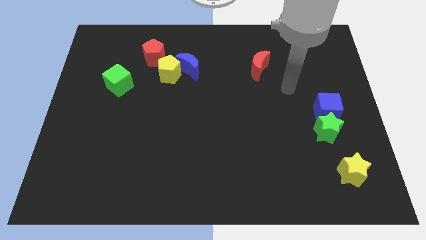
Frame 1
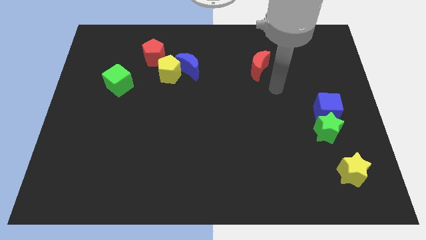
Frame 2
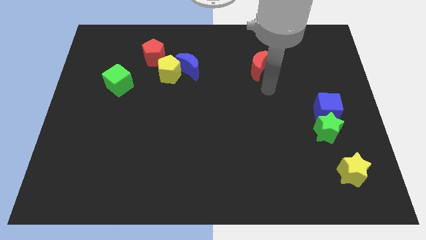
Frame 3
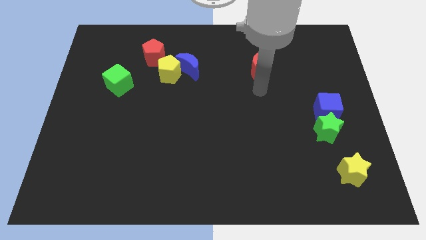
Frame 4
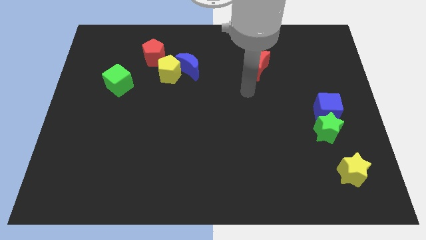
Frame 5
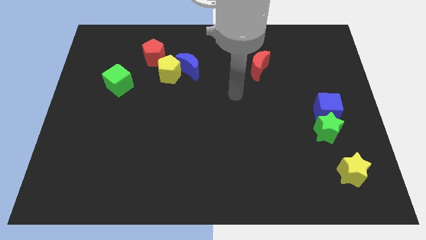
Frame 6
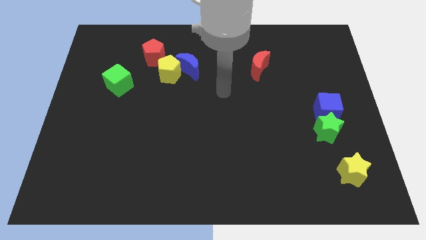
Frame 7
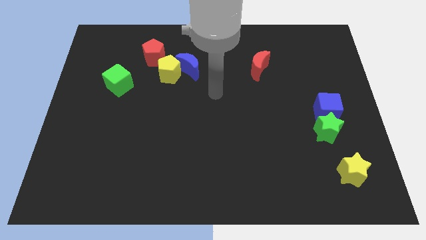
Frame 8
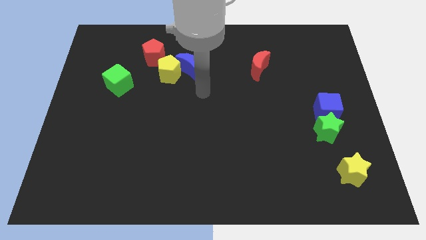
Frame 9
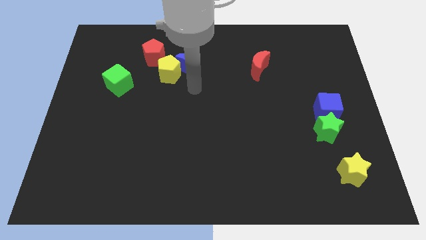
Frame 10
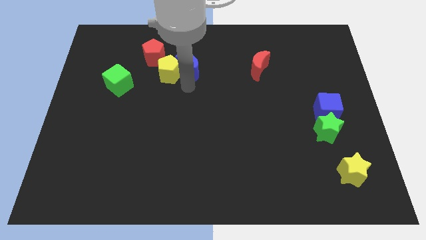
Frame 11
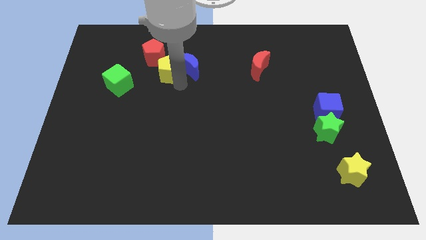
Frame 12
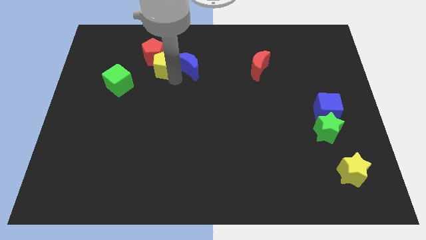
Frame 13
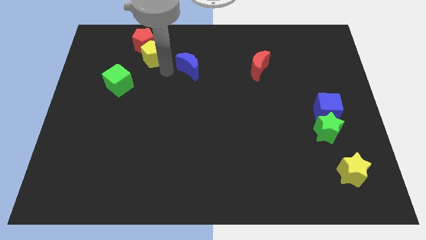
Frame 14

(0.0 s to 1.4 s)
move the blue moon away from the yellow pentagon

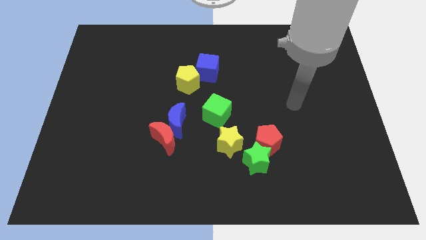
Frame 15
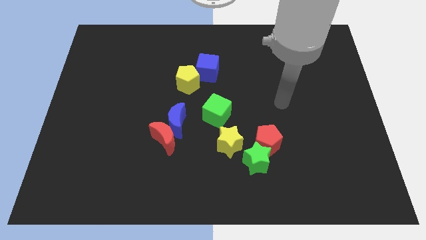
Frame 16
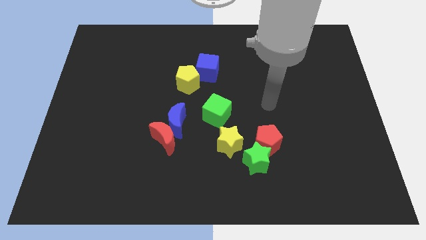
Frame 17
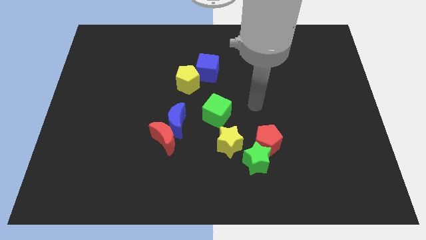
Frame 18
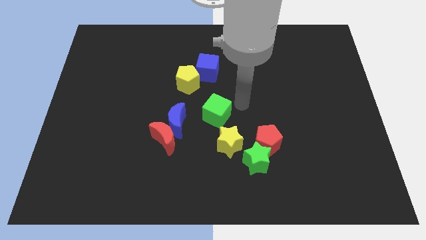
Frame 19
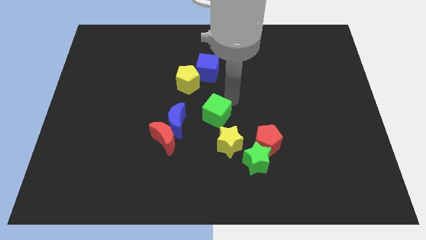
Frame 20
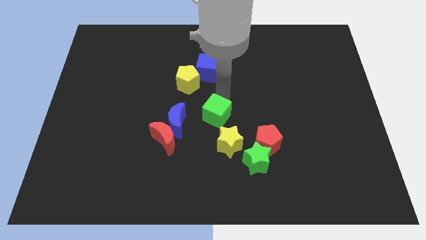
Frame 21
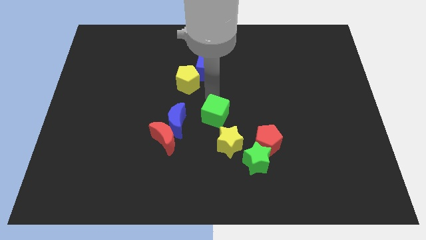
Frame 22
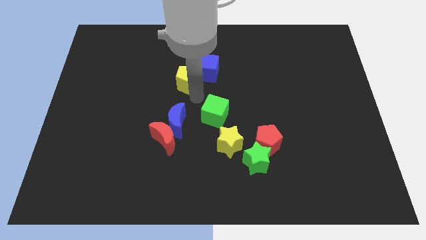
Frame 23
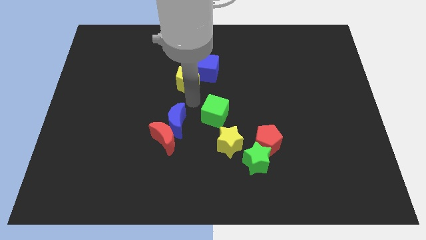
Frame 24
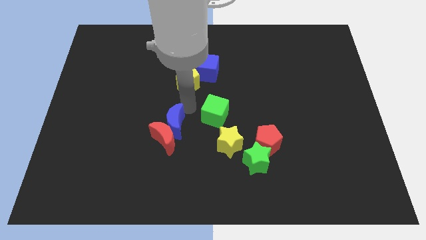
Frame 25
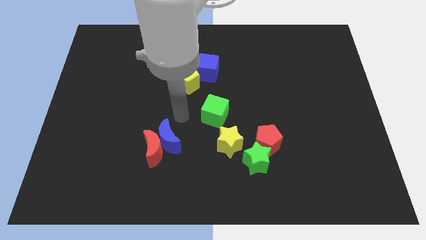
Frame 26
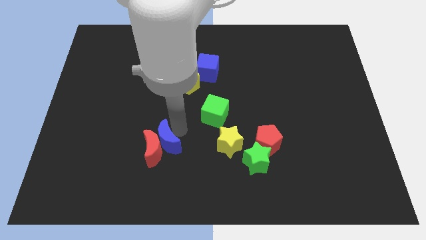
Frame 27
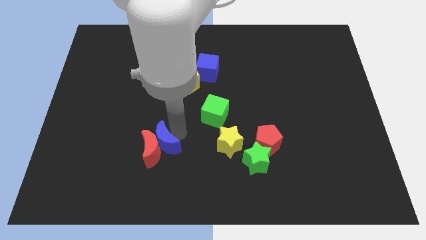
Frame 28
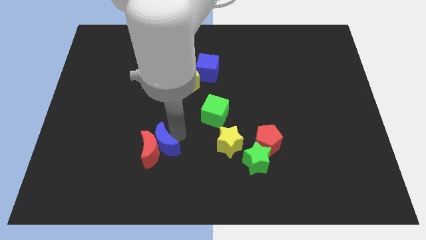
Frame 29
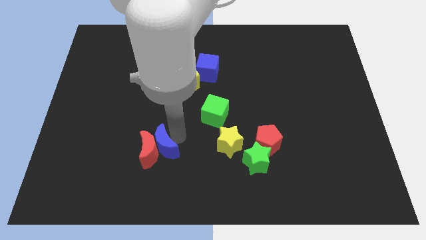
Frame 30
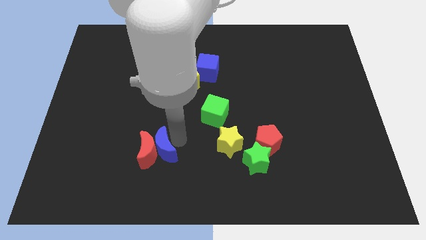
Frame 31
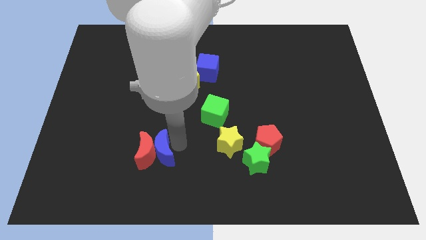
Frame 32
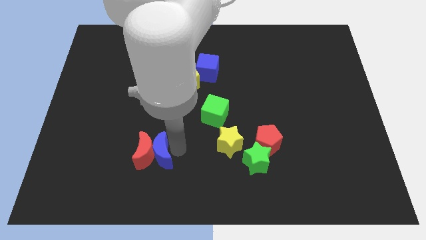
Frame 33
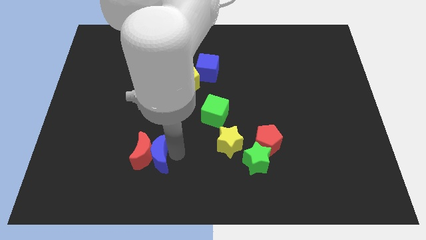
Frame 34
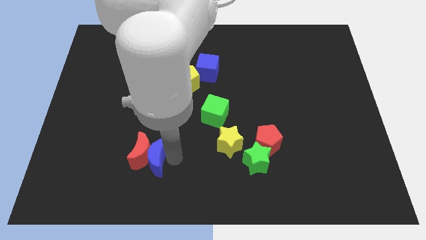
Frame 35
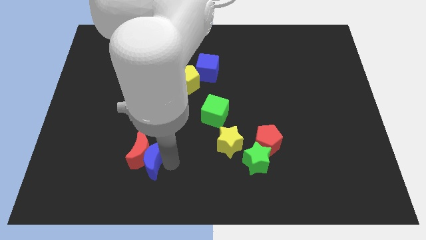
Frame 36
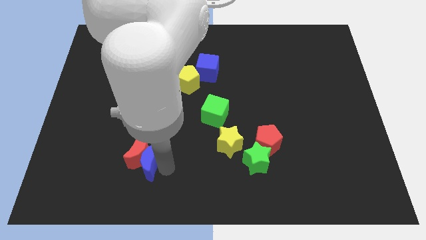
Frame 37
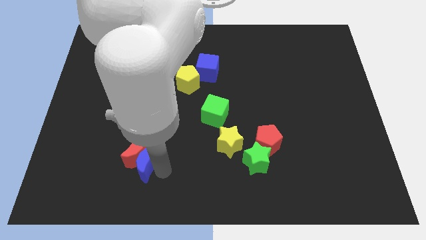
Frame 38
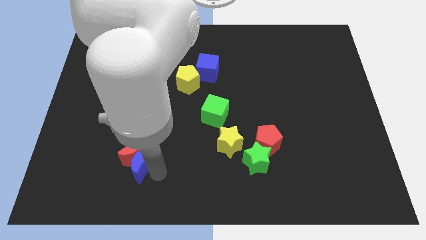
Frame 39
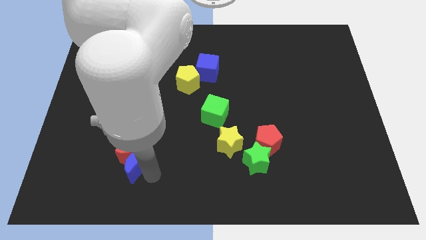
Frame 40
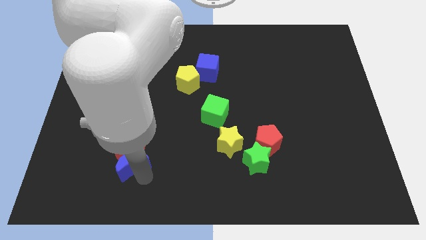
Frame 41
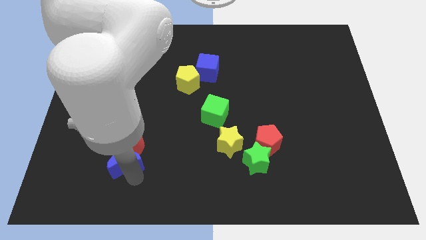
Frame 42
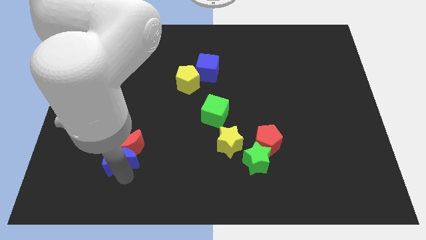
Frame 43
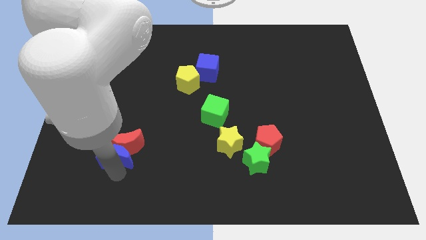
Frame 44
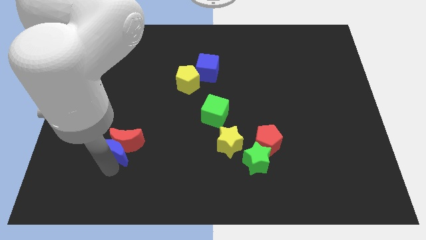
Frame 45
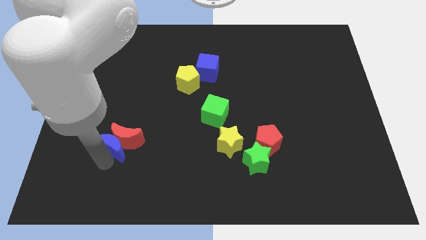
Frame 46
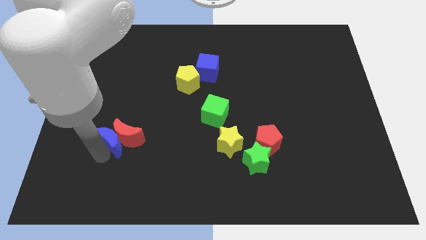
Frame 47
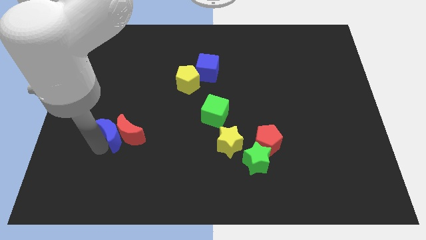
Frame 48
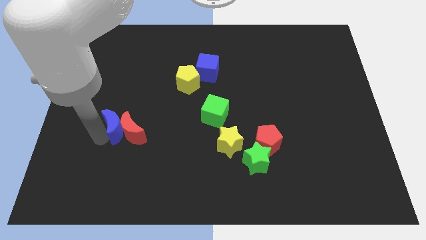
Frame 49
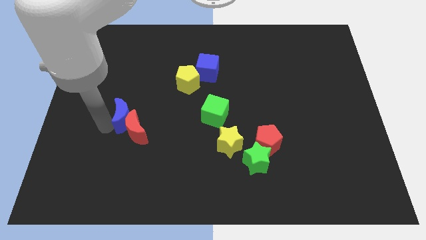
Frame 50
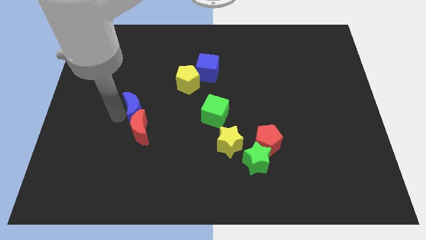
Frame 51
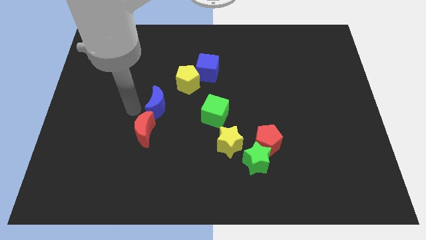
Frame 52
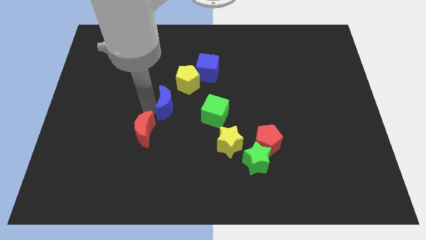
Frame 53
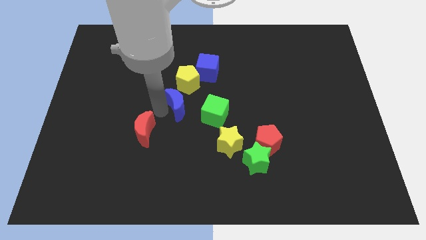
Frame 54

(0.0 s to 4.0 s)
separate the red moon from the blue moon

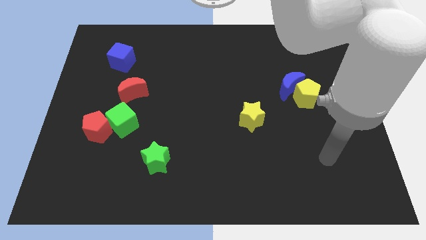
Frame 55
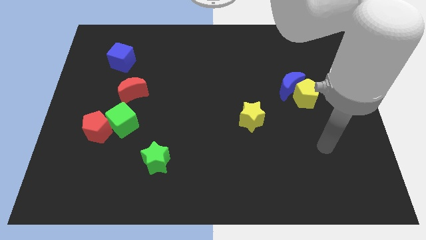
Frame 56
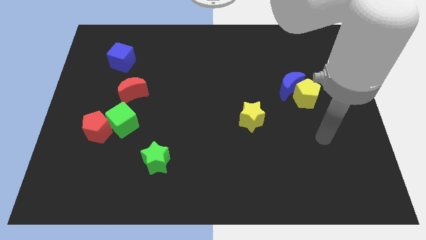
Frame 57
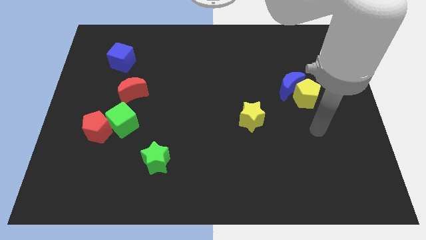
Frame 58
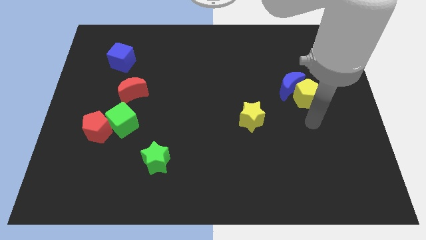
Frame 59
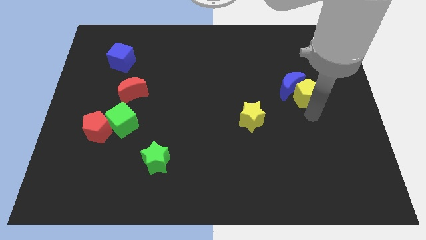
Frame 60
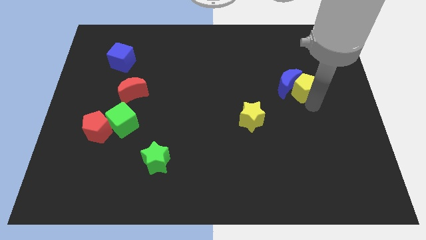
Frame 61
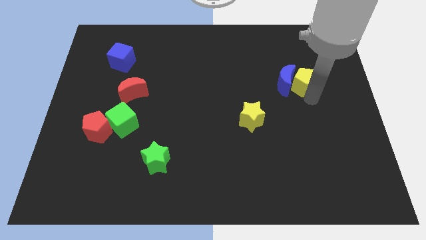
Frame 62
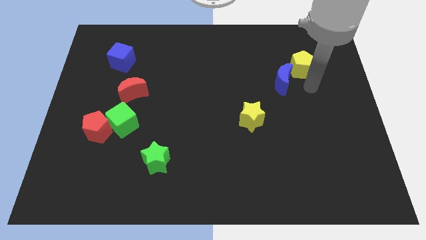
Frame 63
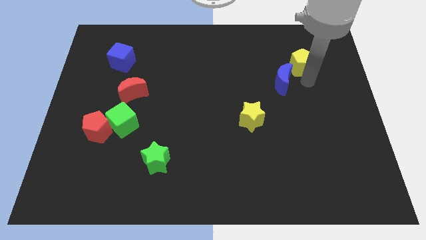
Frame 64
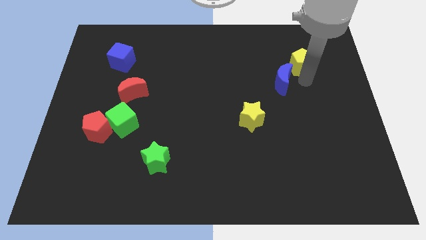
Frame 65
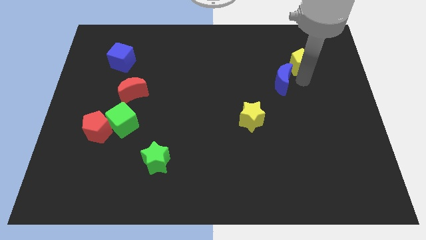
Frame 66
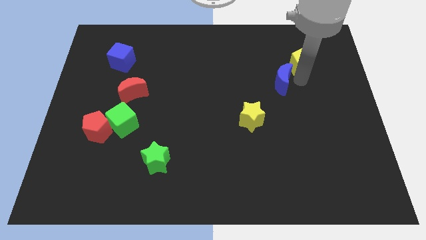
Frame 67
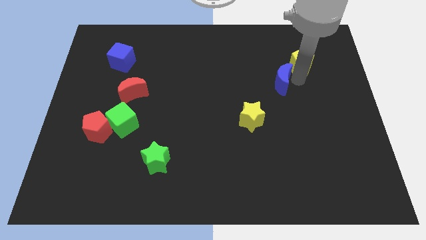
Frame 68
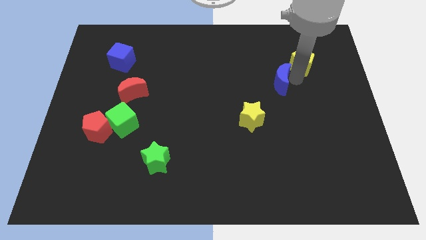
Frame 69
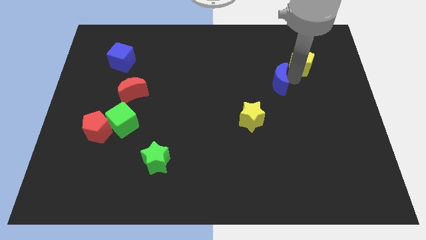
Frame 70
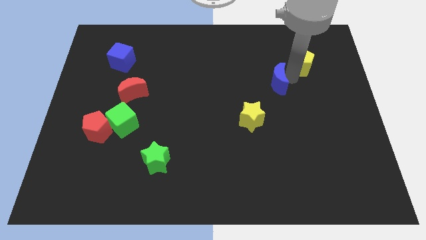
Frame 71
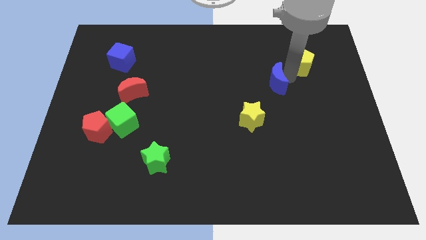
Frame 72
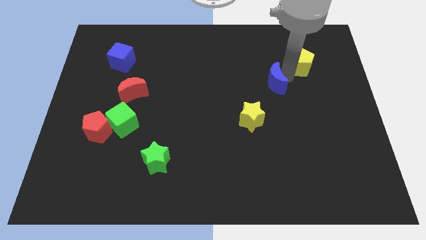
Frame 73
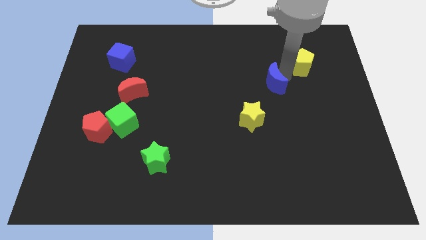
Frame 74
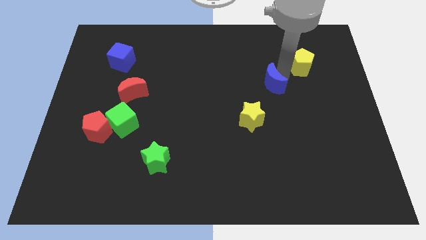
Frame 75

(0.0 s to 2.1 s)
separate the blue moon from the yellow pentagon

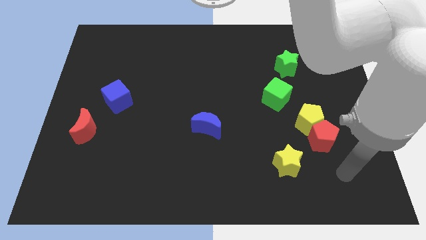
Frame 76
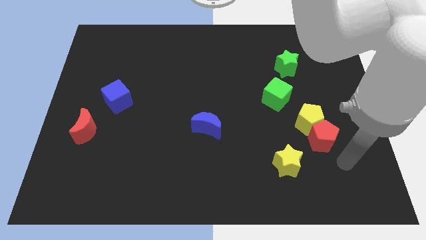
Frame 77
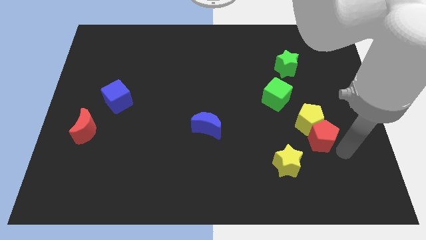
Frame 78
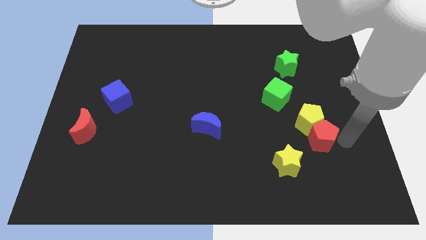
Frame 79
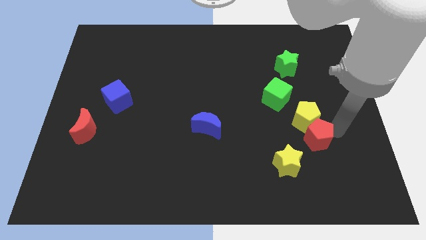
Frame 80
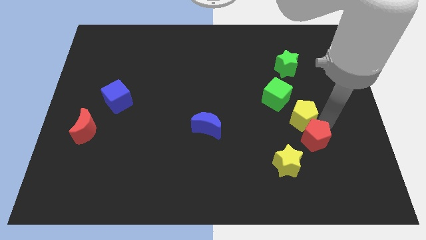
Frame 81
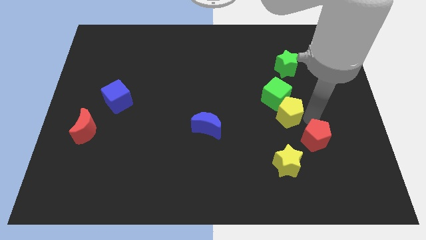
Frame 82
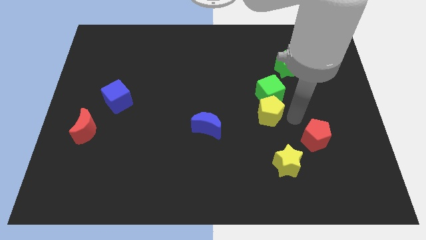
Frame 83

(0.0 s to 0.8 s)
pull the red pentagon apart from the yellow pentagon

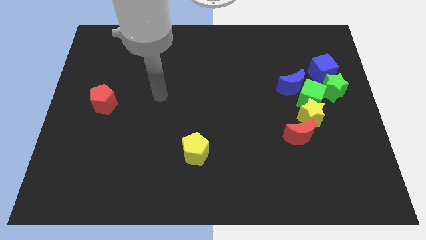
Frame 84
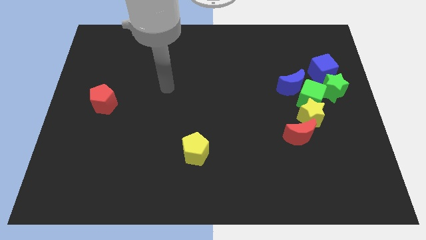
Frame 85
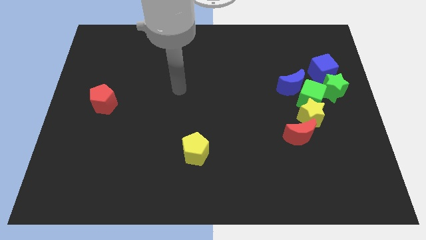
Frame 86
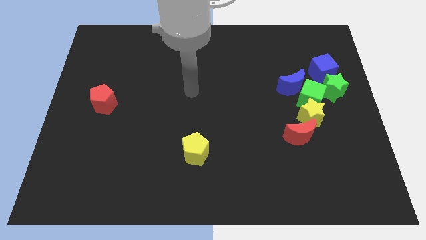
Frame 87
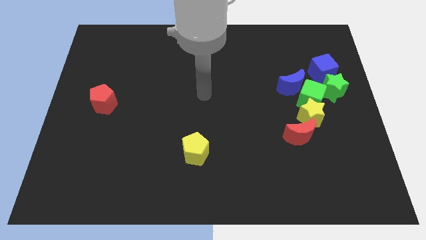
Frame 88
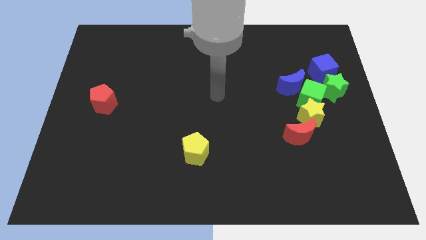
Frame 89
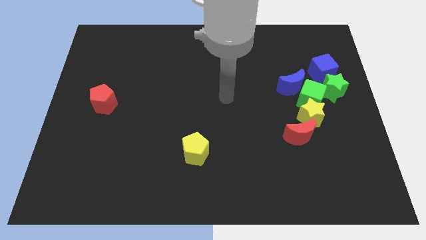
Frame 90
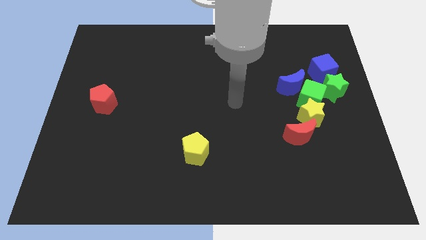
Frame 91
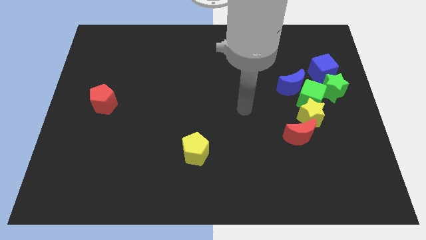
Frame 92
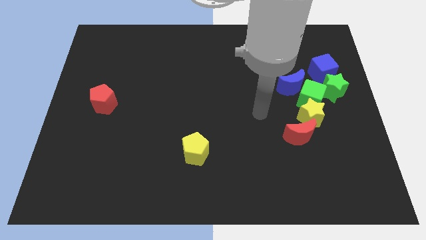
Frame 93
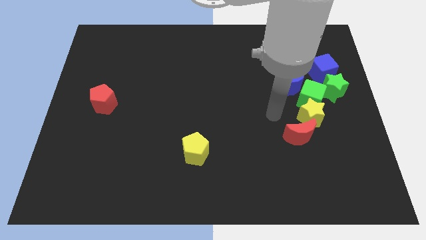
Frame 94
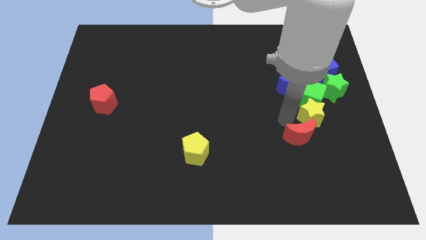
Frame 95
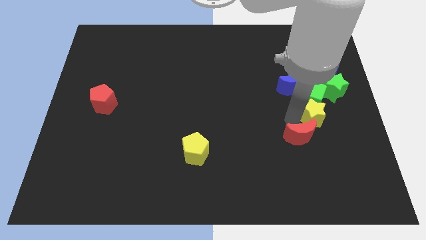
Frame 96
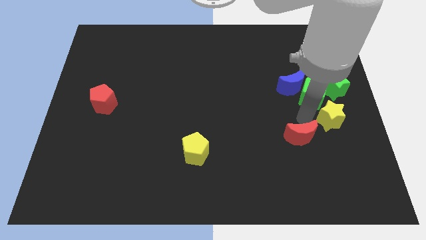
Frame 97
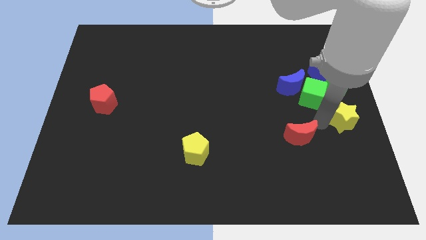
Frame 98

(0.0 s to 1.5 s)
pull the red moon apart from the yellow star
